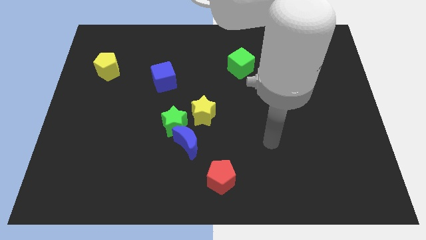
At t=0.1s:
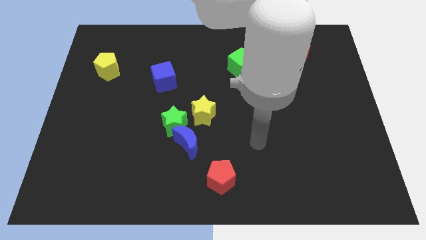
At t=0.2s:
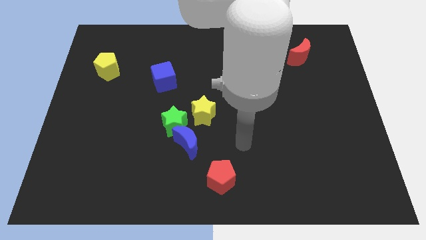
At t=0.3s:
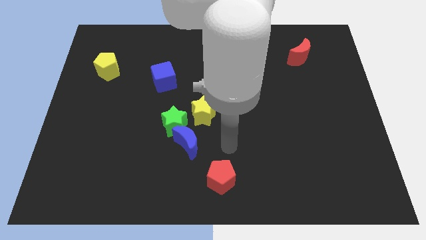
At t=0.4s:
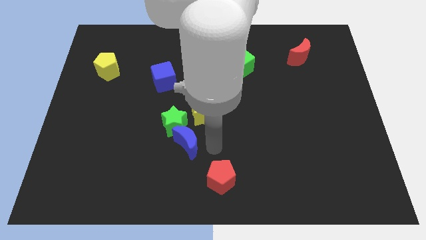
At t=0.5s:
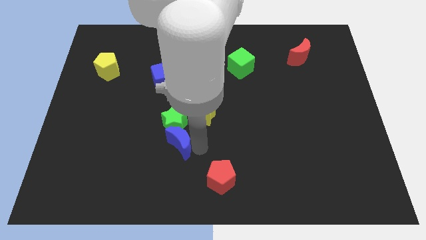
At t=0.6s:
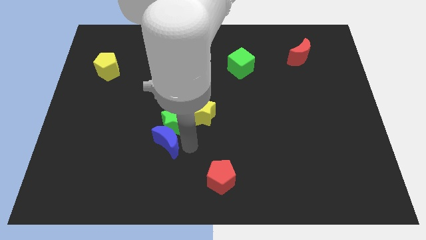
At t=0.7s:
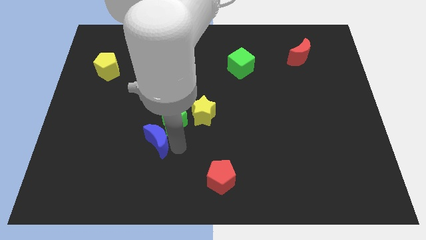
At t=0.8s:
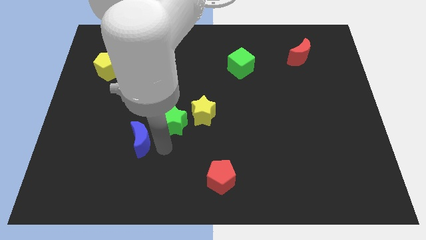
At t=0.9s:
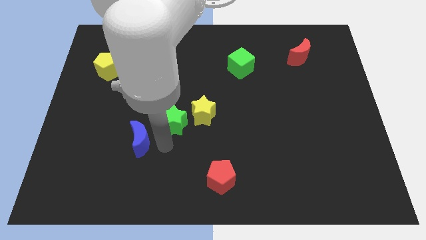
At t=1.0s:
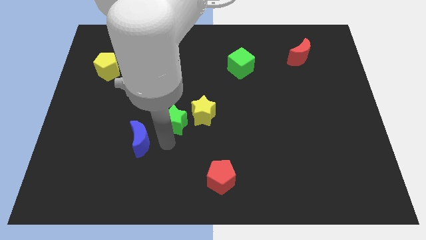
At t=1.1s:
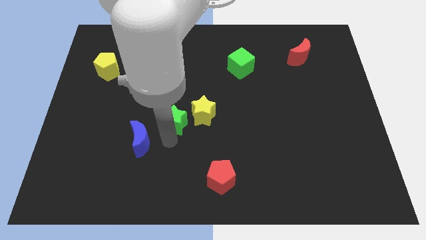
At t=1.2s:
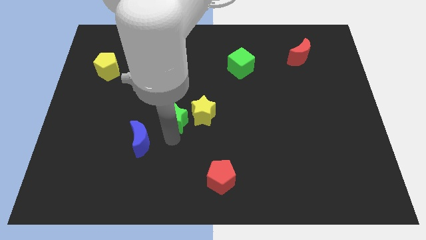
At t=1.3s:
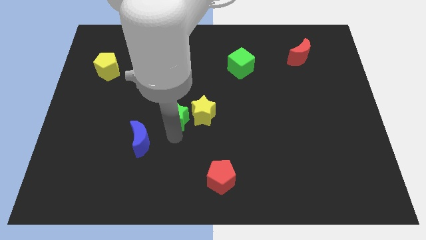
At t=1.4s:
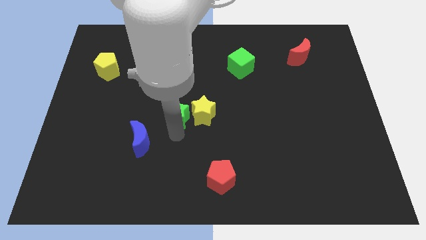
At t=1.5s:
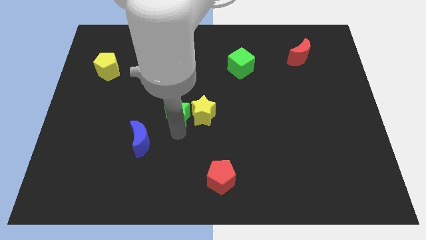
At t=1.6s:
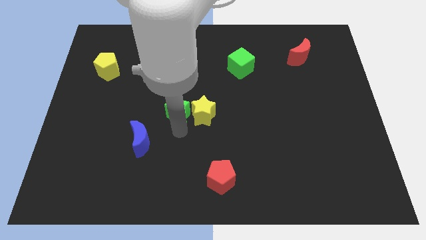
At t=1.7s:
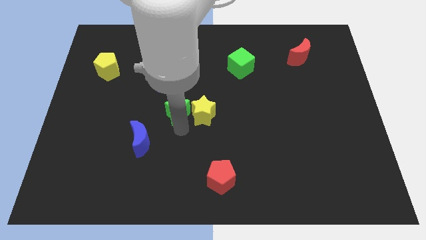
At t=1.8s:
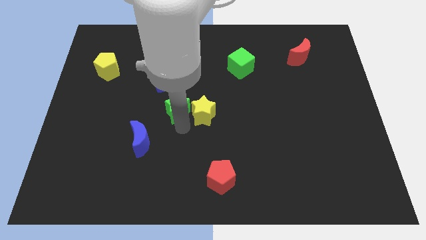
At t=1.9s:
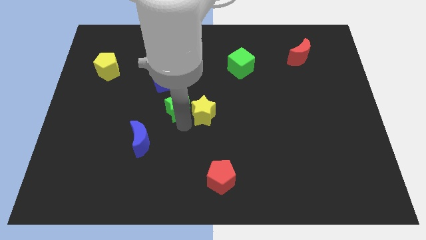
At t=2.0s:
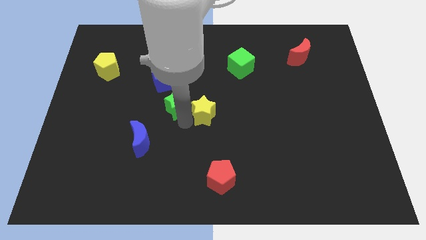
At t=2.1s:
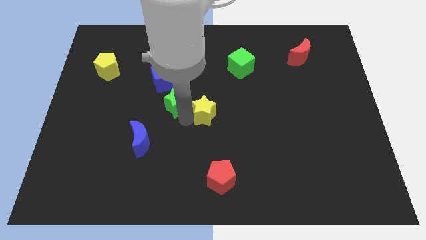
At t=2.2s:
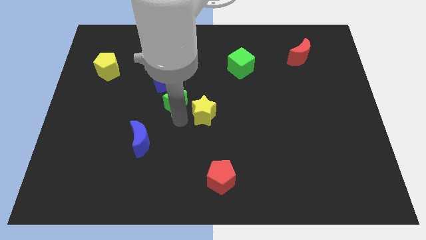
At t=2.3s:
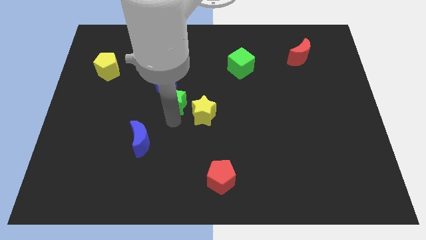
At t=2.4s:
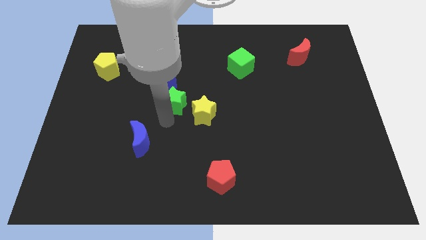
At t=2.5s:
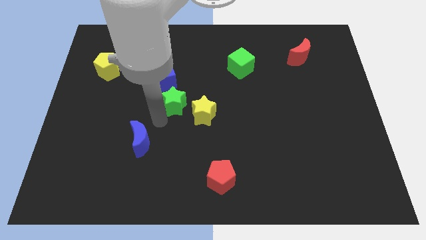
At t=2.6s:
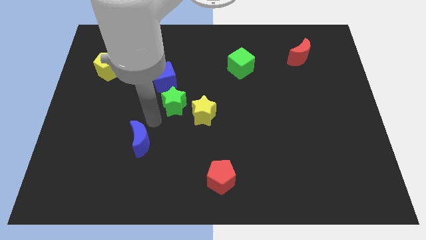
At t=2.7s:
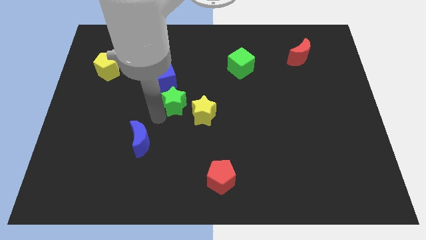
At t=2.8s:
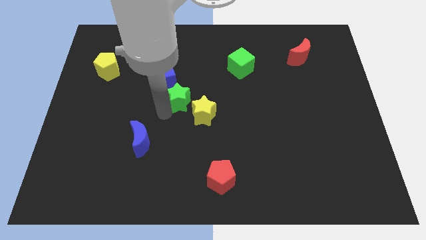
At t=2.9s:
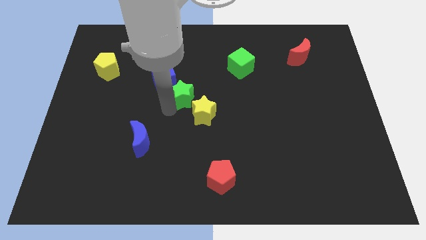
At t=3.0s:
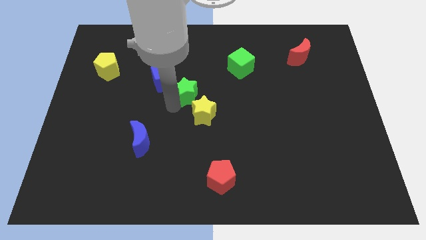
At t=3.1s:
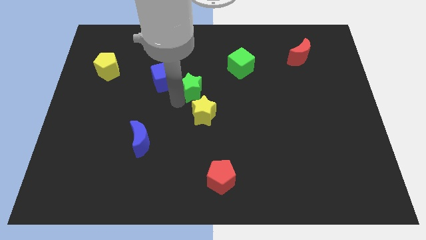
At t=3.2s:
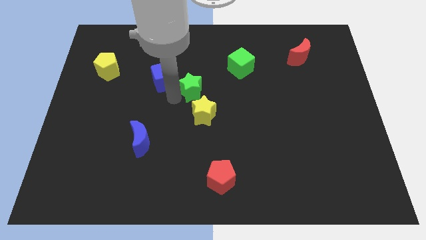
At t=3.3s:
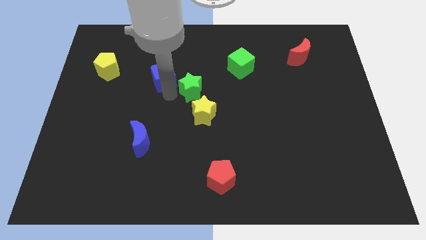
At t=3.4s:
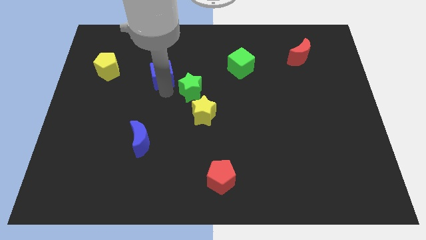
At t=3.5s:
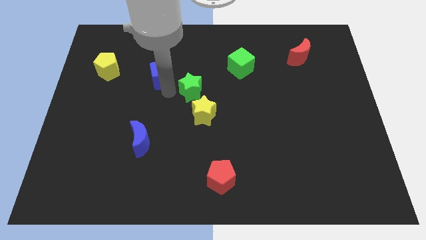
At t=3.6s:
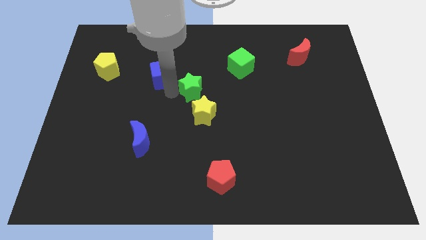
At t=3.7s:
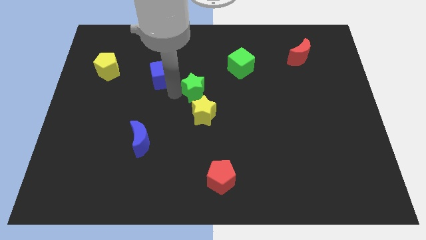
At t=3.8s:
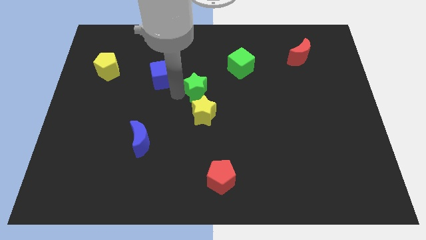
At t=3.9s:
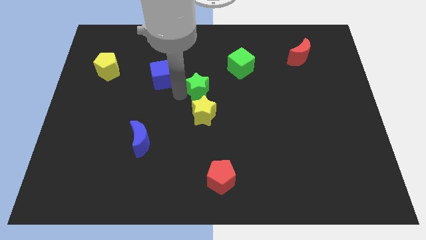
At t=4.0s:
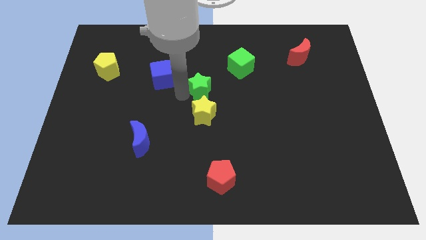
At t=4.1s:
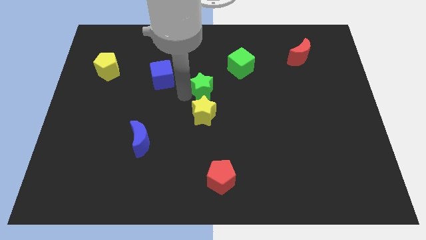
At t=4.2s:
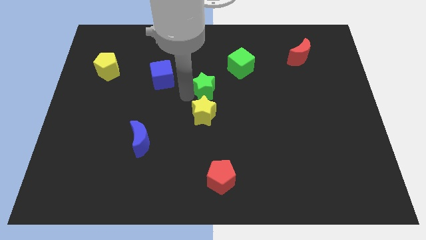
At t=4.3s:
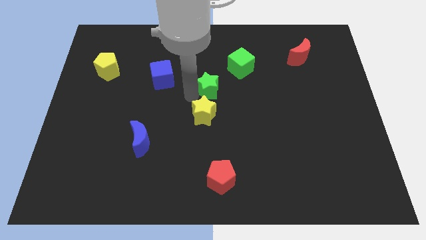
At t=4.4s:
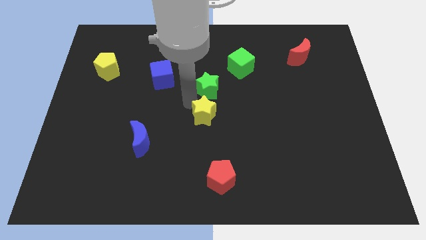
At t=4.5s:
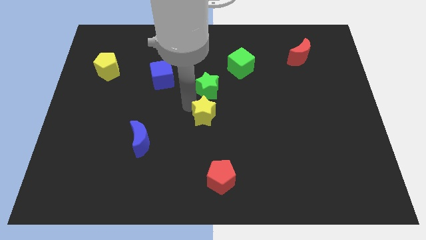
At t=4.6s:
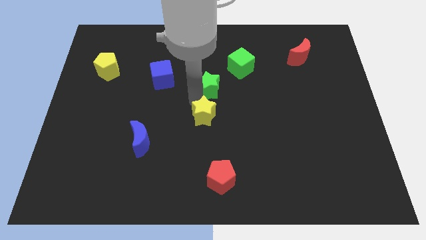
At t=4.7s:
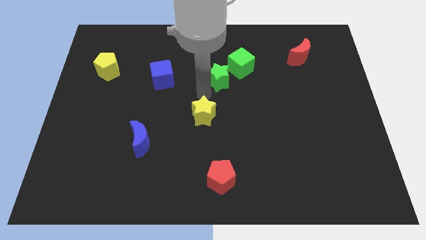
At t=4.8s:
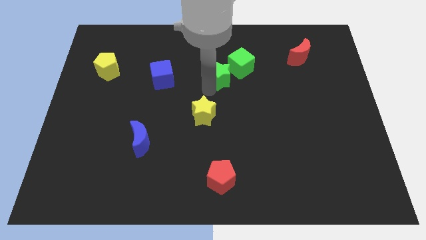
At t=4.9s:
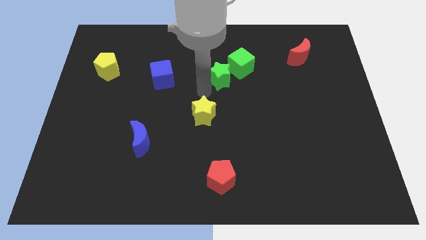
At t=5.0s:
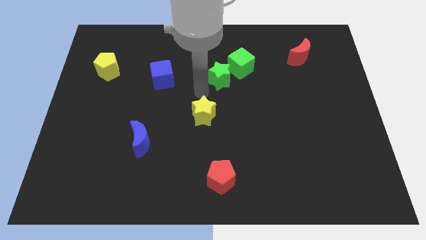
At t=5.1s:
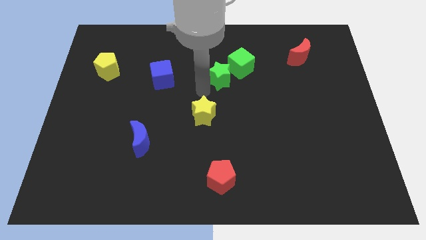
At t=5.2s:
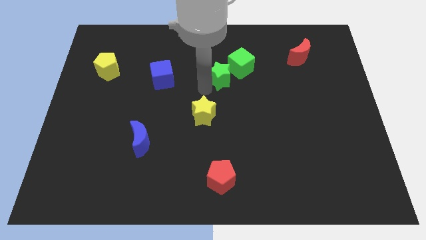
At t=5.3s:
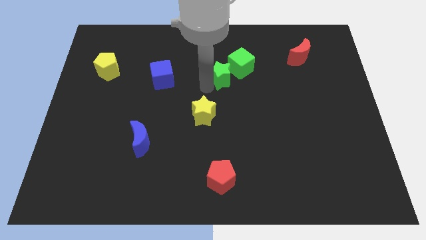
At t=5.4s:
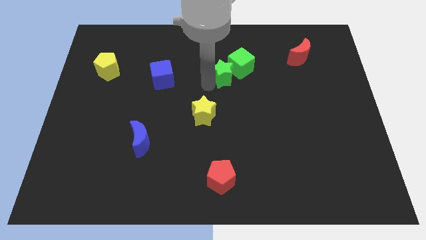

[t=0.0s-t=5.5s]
move the green star close to the green cube
